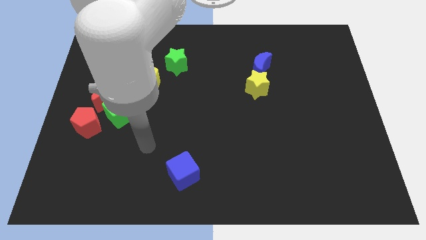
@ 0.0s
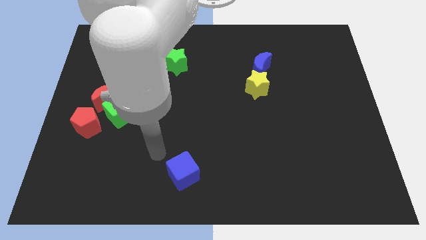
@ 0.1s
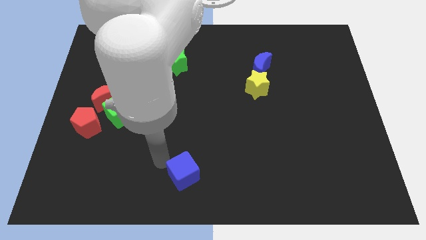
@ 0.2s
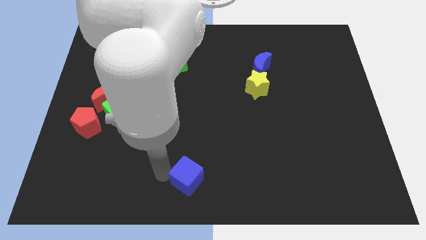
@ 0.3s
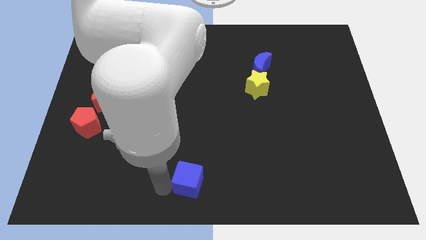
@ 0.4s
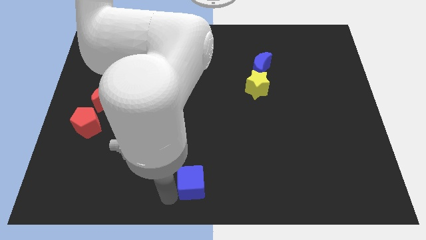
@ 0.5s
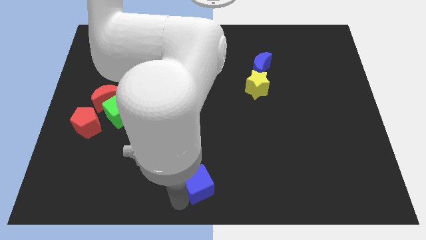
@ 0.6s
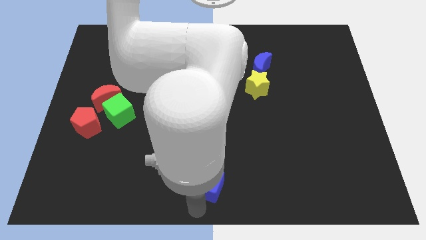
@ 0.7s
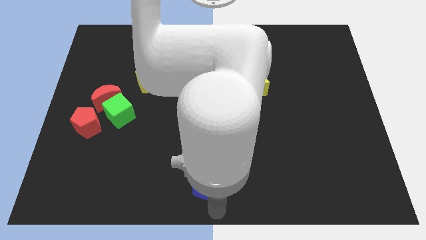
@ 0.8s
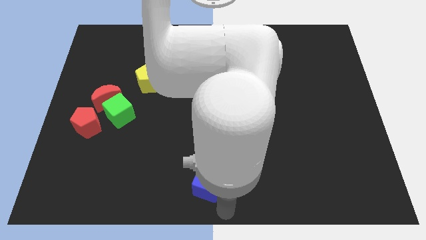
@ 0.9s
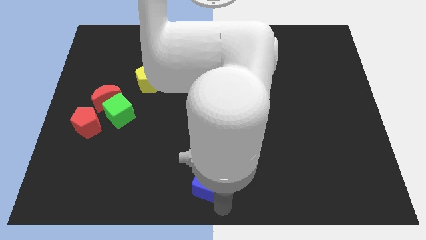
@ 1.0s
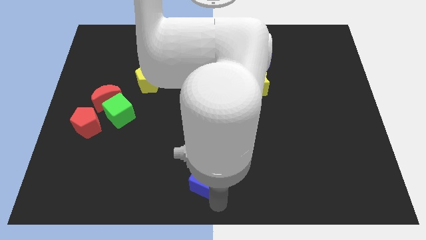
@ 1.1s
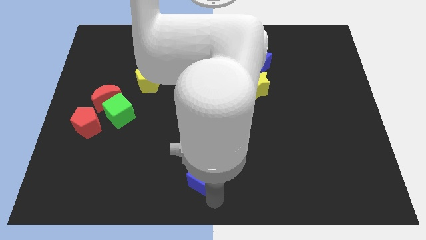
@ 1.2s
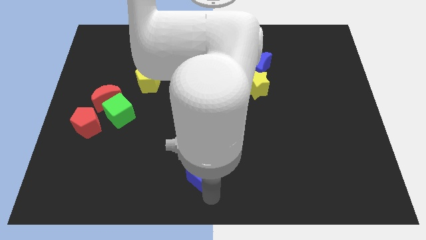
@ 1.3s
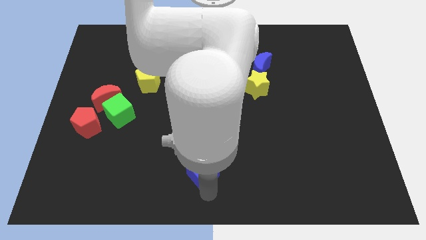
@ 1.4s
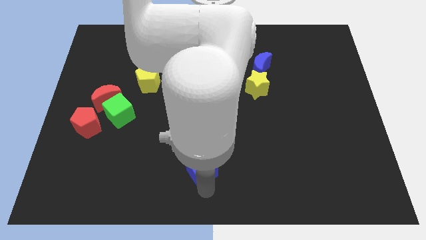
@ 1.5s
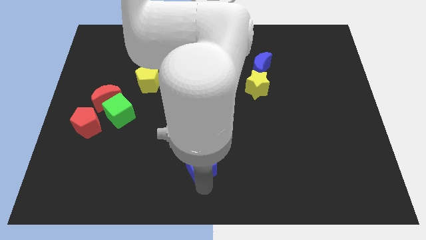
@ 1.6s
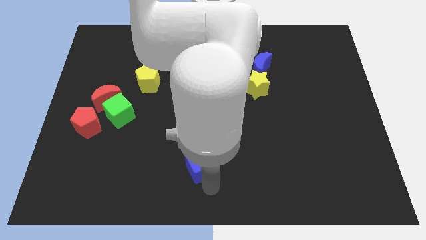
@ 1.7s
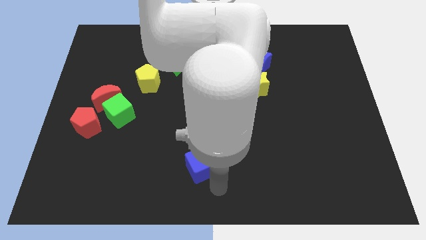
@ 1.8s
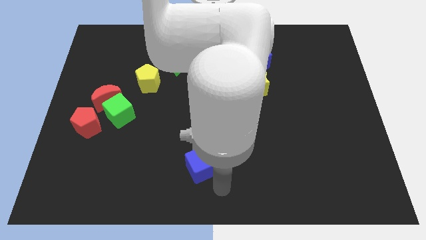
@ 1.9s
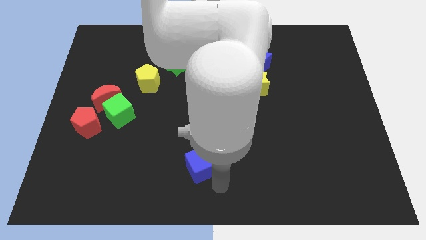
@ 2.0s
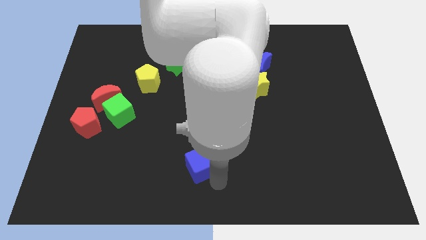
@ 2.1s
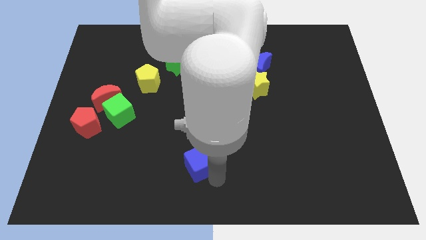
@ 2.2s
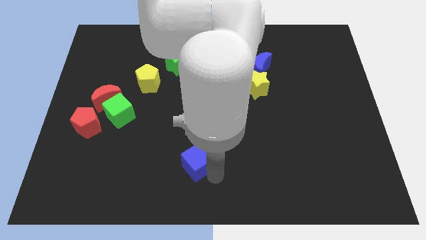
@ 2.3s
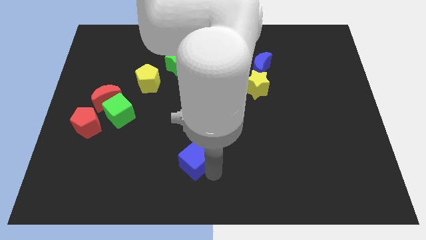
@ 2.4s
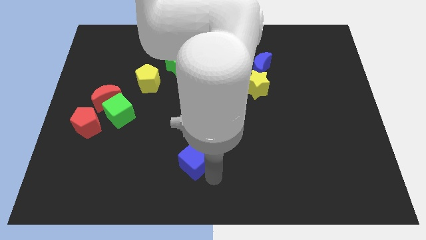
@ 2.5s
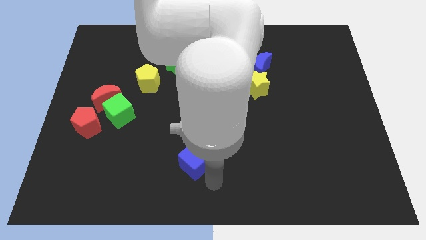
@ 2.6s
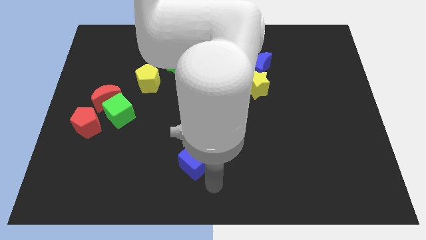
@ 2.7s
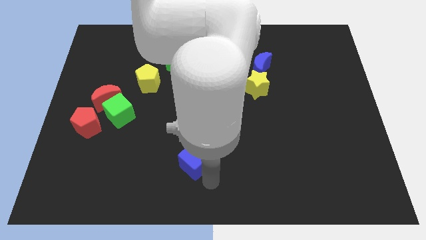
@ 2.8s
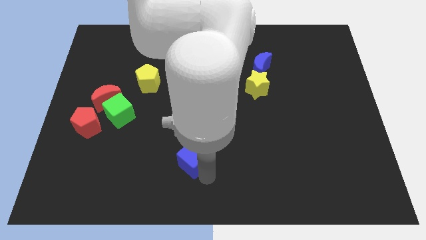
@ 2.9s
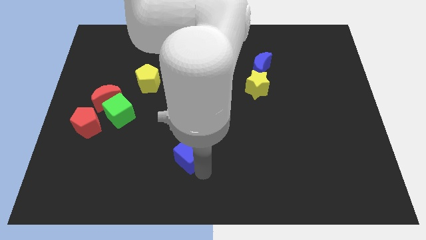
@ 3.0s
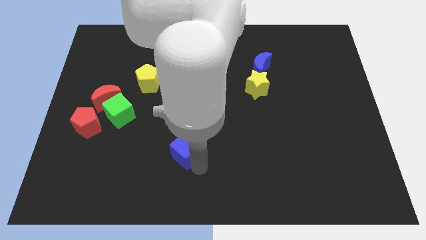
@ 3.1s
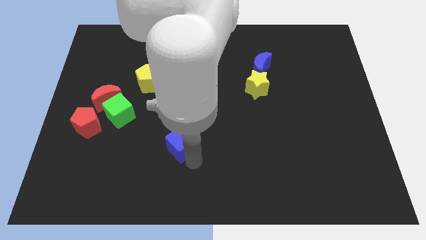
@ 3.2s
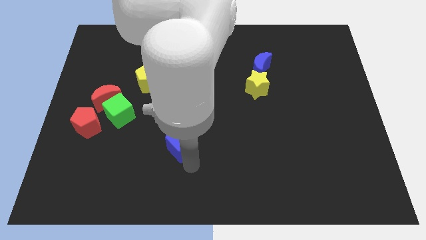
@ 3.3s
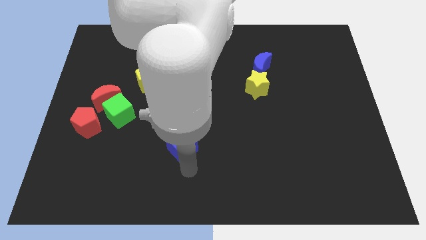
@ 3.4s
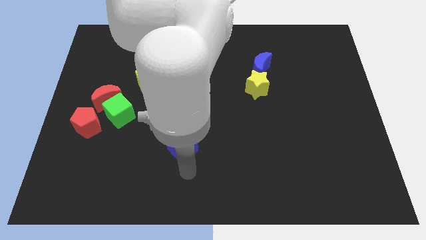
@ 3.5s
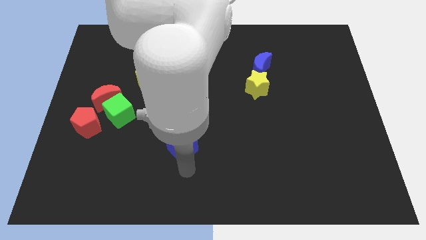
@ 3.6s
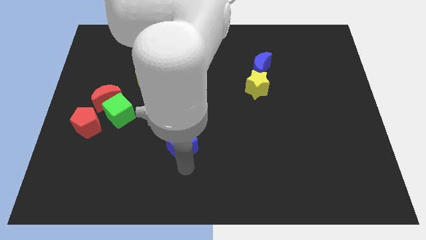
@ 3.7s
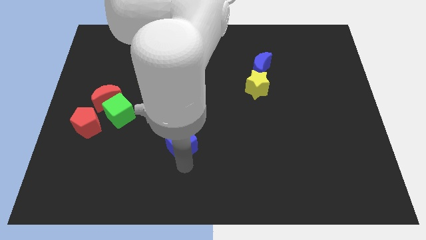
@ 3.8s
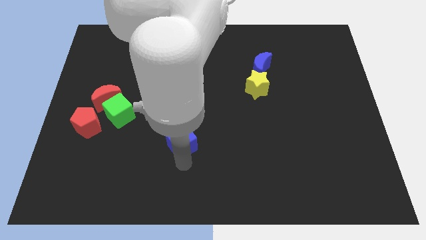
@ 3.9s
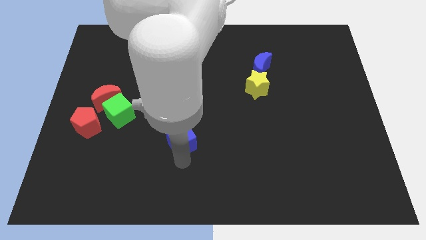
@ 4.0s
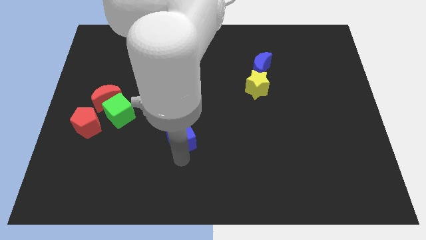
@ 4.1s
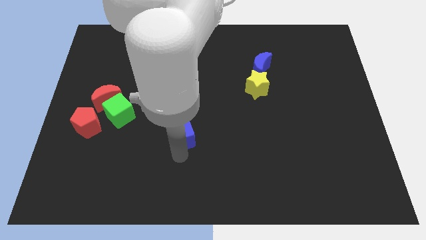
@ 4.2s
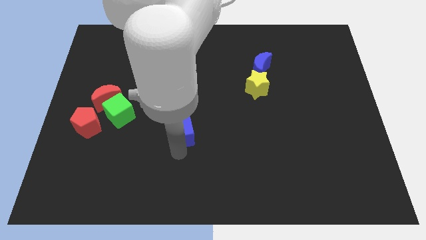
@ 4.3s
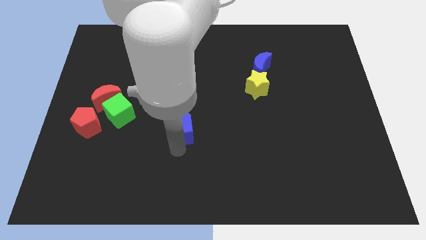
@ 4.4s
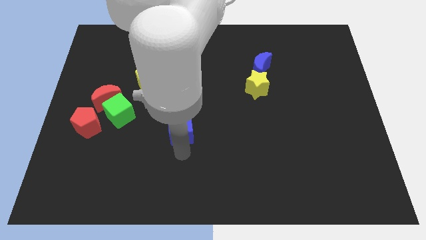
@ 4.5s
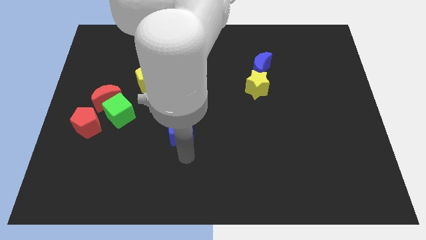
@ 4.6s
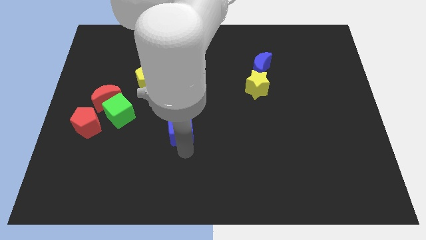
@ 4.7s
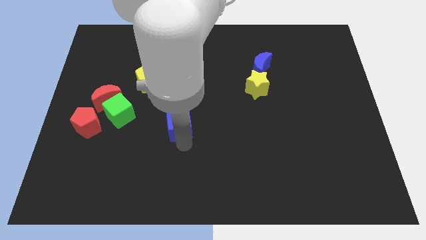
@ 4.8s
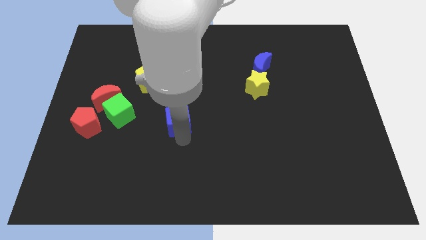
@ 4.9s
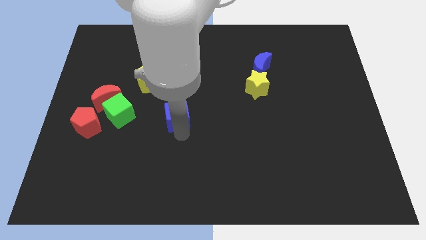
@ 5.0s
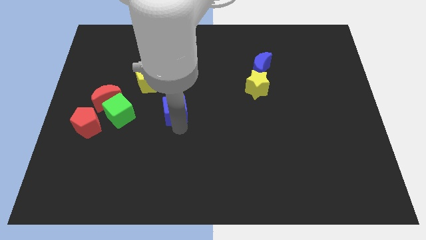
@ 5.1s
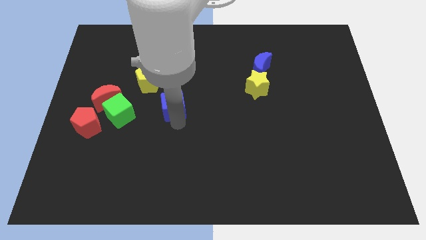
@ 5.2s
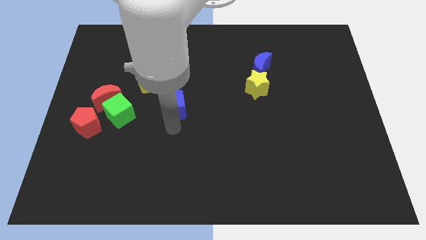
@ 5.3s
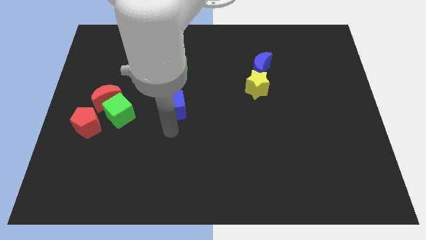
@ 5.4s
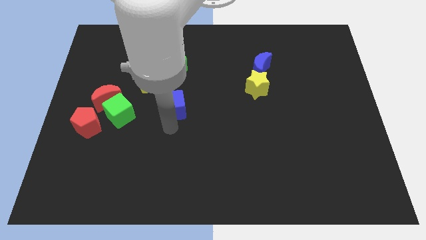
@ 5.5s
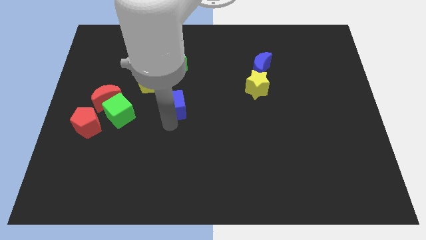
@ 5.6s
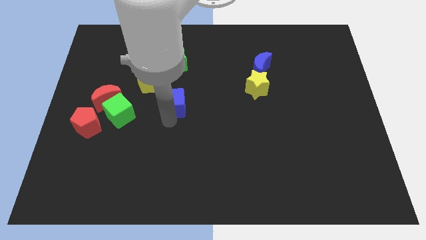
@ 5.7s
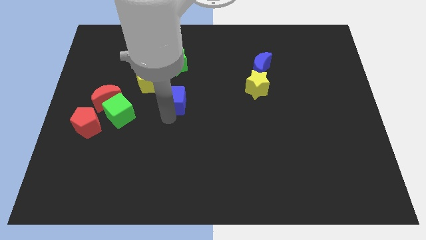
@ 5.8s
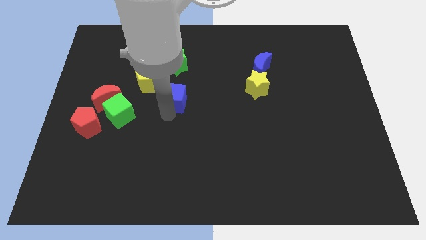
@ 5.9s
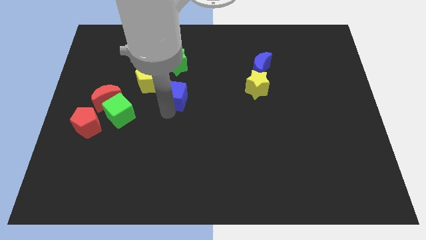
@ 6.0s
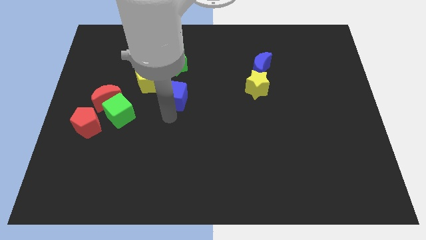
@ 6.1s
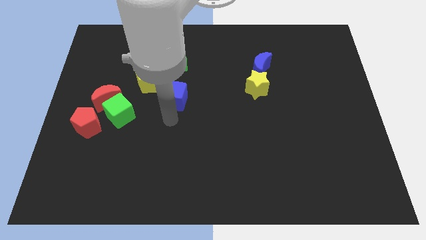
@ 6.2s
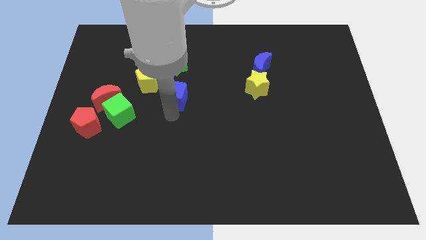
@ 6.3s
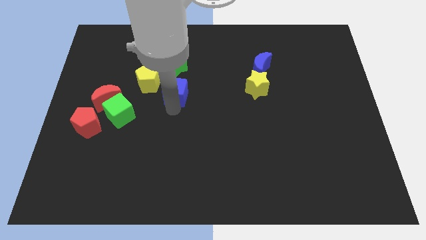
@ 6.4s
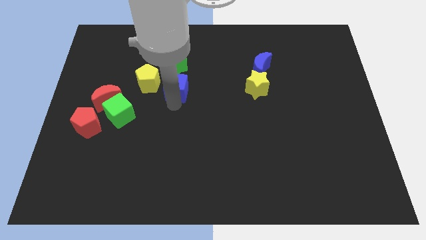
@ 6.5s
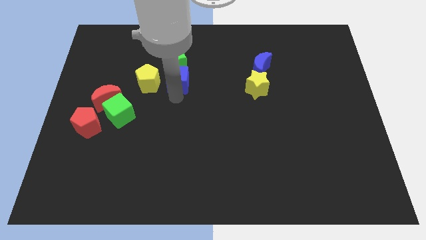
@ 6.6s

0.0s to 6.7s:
put the blue cube towards the green star
